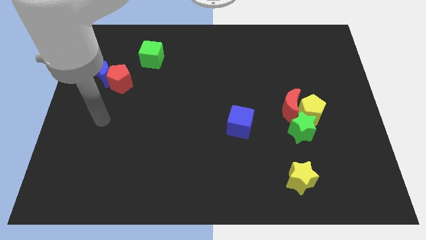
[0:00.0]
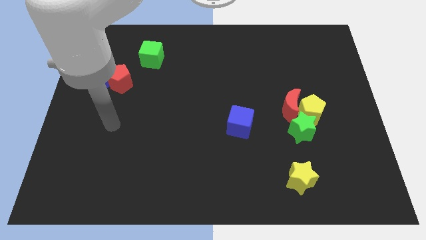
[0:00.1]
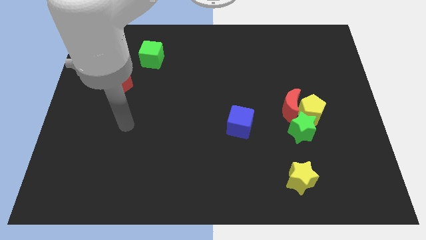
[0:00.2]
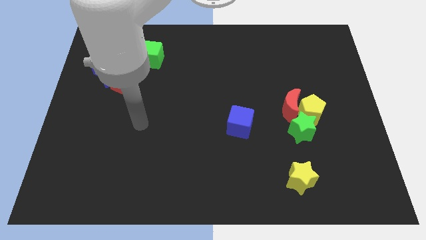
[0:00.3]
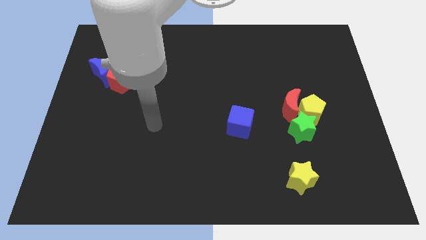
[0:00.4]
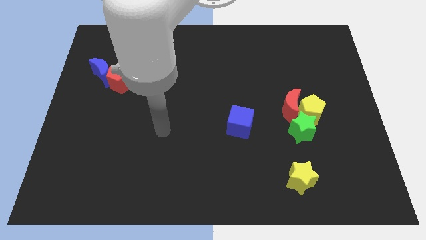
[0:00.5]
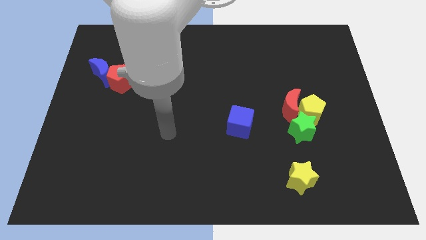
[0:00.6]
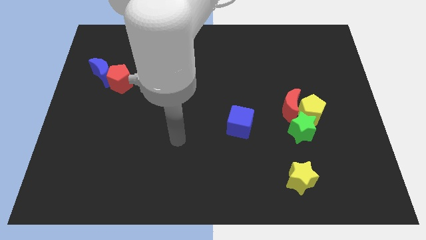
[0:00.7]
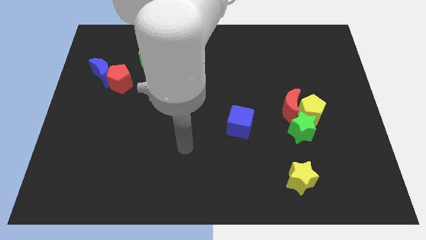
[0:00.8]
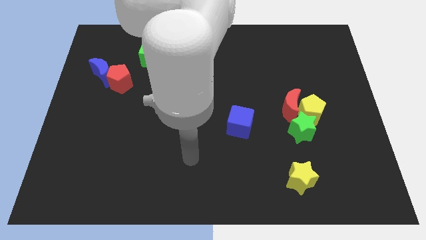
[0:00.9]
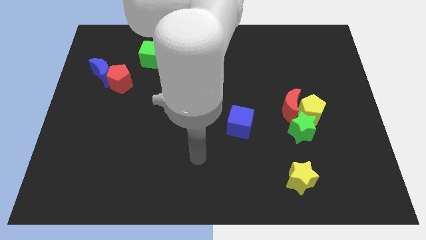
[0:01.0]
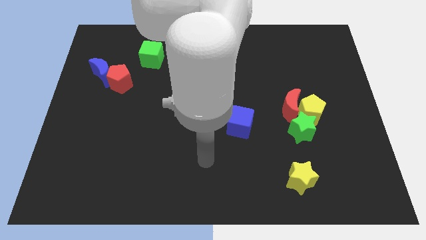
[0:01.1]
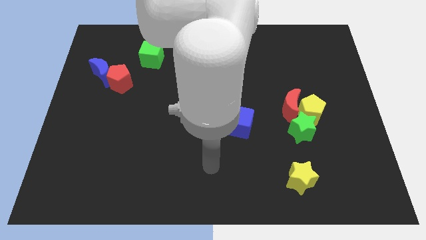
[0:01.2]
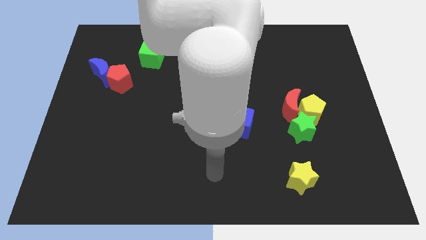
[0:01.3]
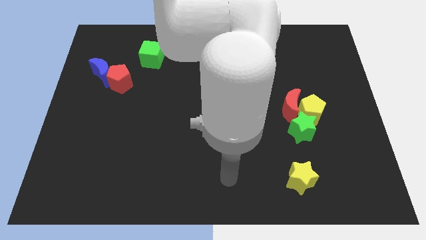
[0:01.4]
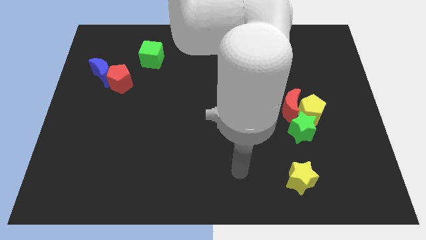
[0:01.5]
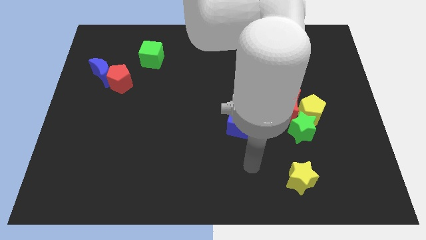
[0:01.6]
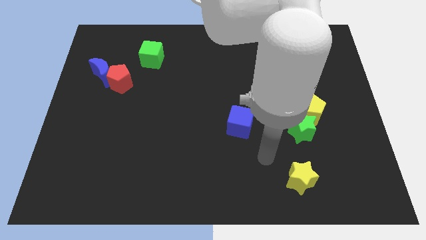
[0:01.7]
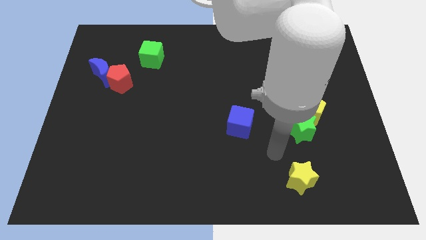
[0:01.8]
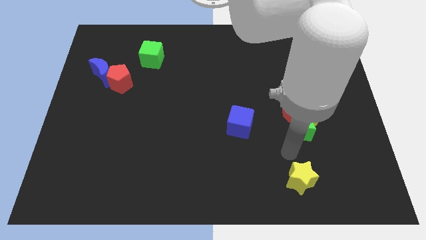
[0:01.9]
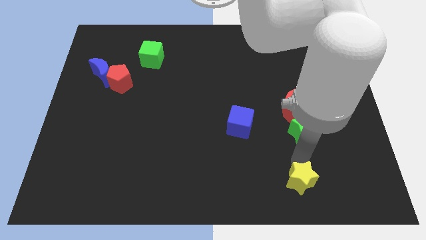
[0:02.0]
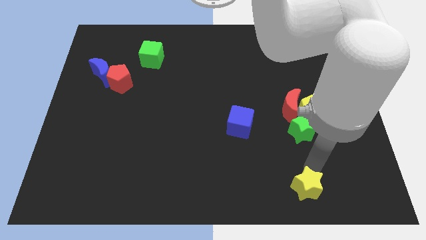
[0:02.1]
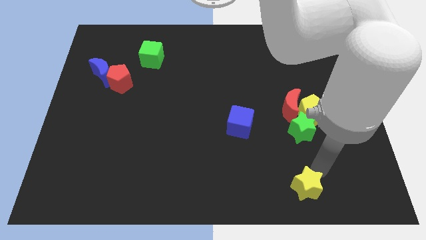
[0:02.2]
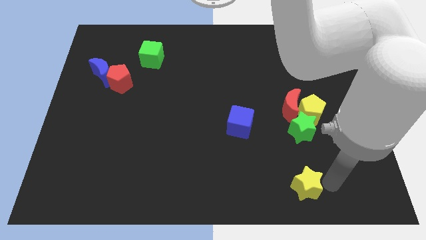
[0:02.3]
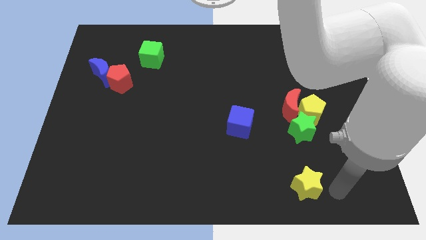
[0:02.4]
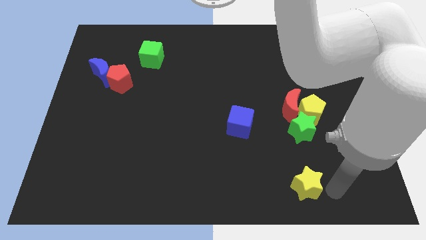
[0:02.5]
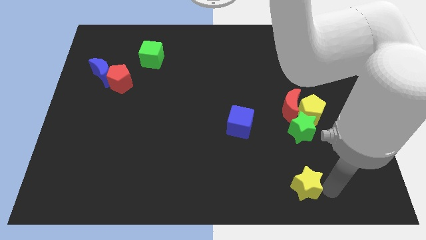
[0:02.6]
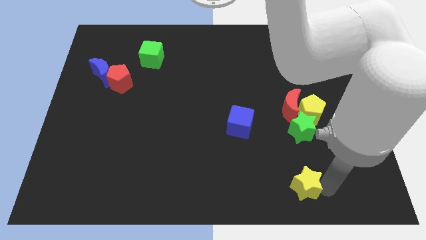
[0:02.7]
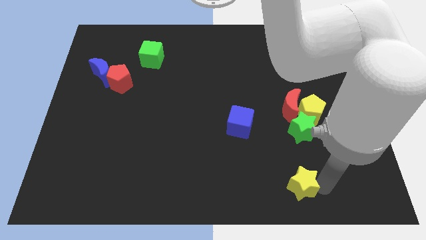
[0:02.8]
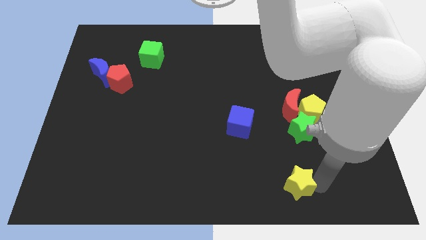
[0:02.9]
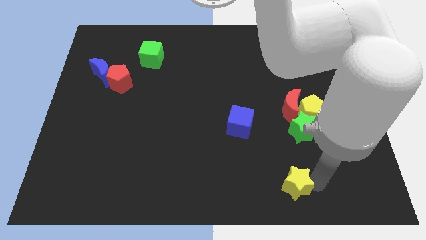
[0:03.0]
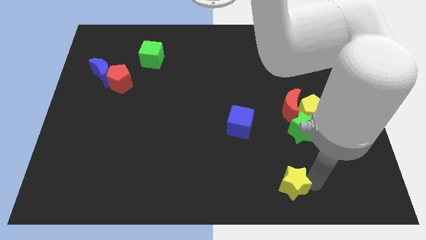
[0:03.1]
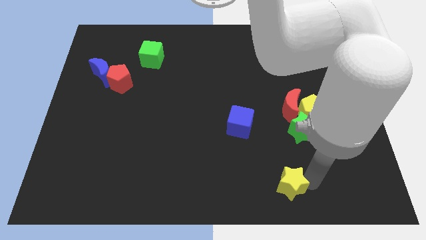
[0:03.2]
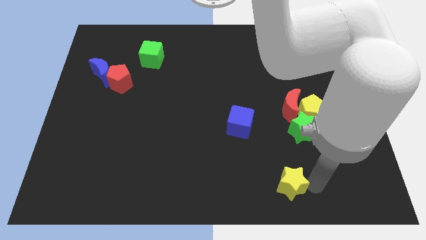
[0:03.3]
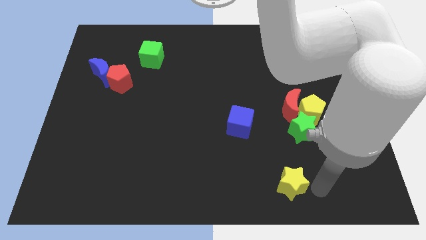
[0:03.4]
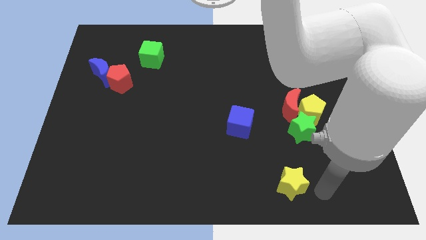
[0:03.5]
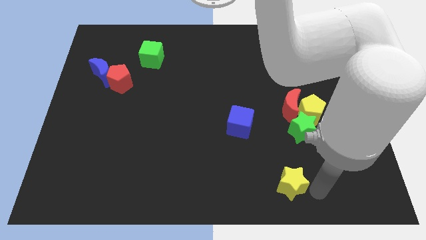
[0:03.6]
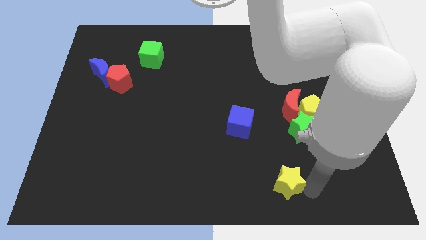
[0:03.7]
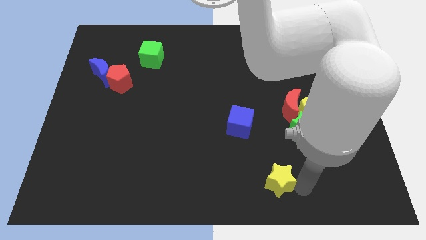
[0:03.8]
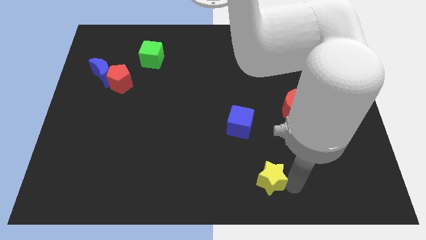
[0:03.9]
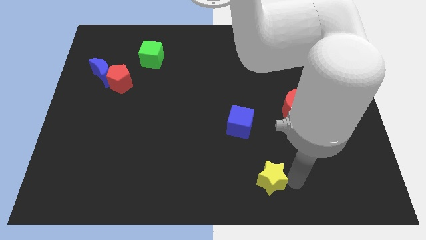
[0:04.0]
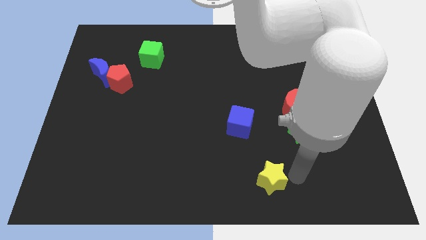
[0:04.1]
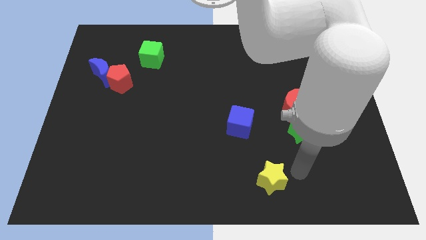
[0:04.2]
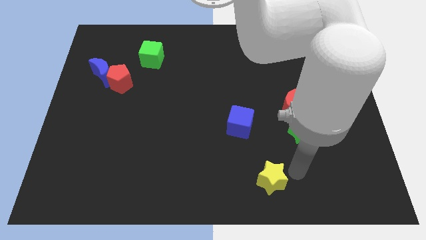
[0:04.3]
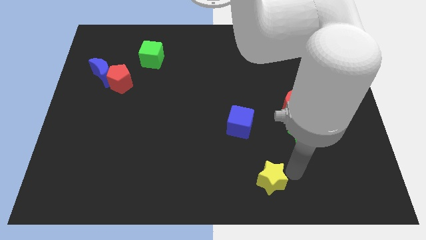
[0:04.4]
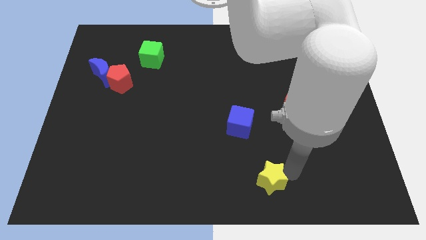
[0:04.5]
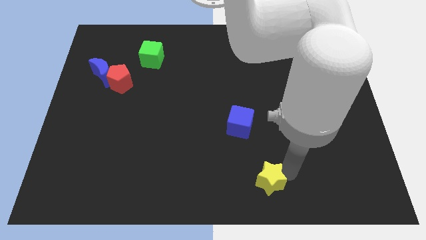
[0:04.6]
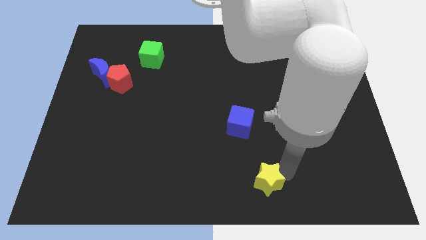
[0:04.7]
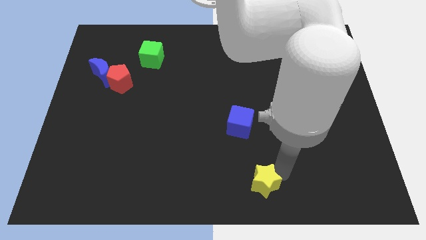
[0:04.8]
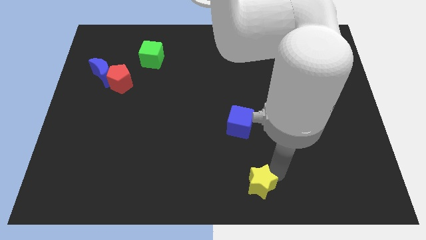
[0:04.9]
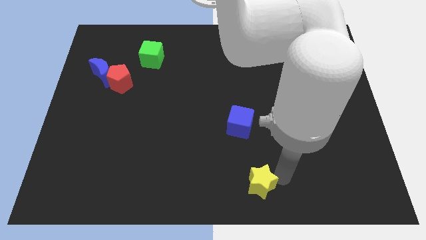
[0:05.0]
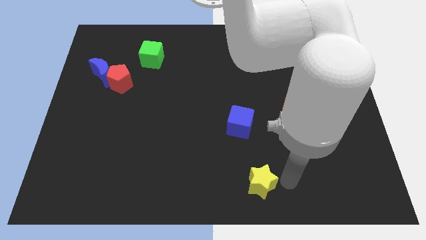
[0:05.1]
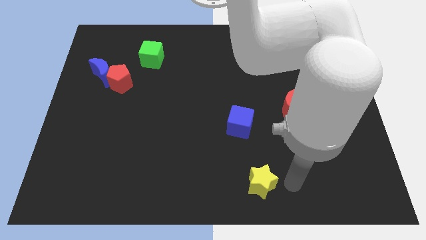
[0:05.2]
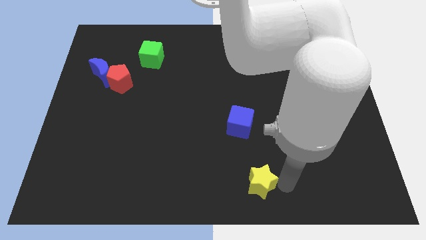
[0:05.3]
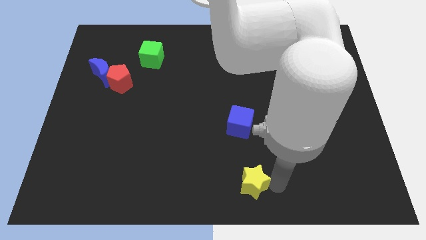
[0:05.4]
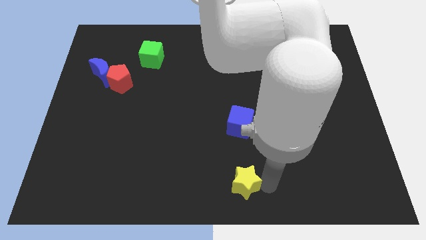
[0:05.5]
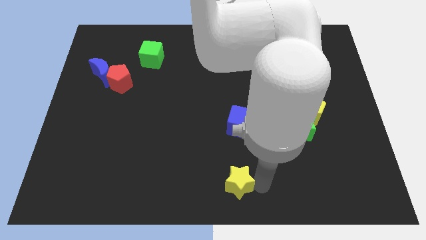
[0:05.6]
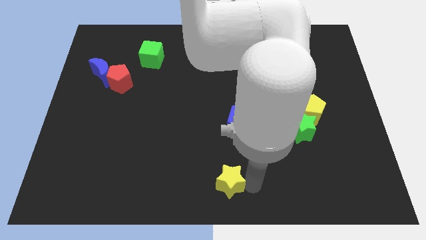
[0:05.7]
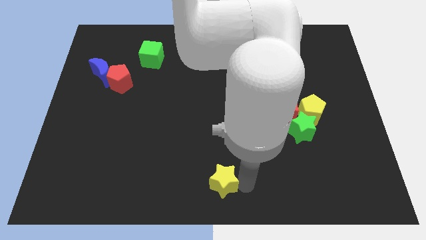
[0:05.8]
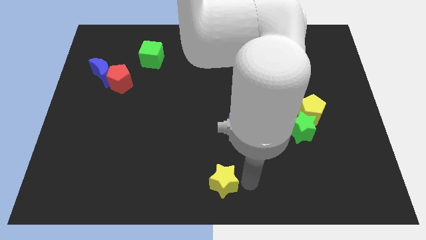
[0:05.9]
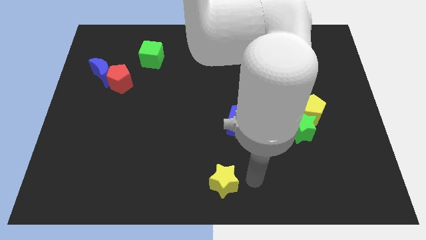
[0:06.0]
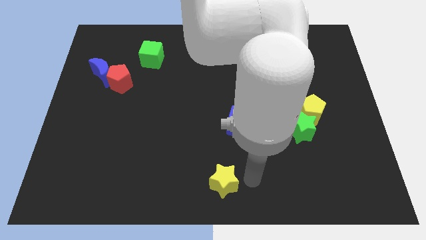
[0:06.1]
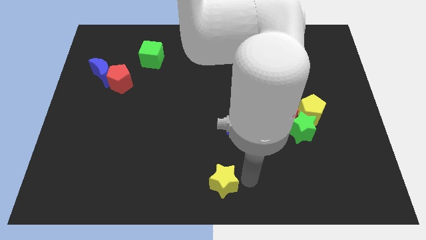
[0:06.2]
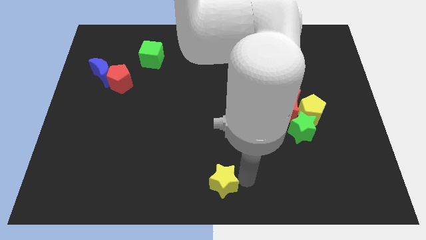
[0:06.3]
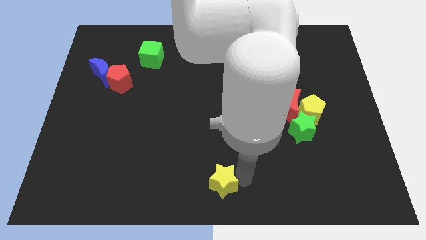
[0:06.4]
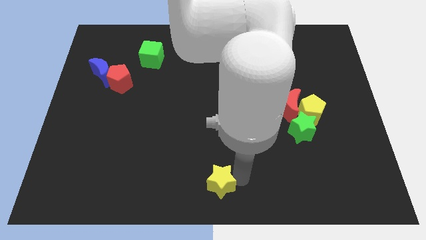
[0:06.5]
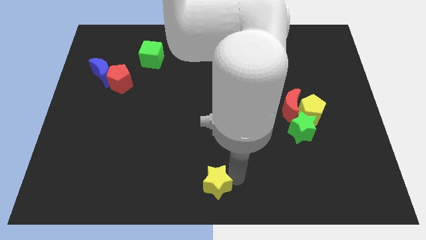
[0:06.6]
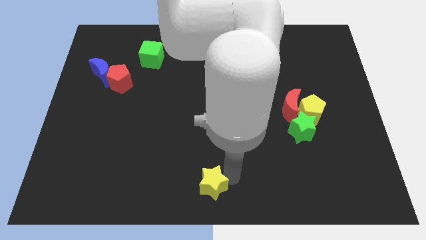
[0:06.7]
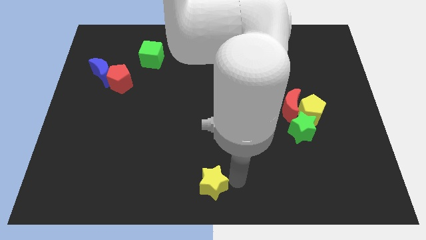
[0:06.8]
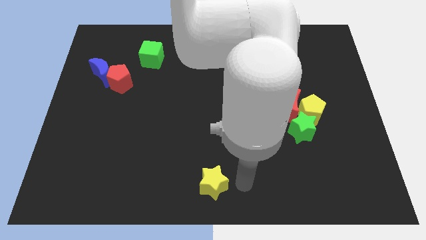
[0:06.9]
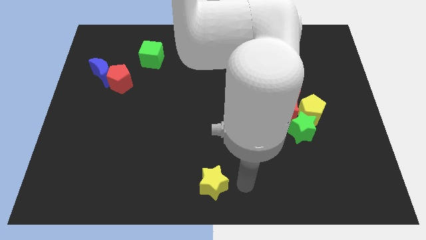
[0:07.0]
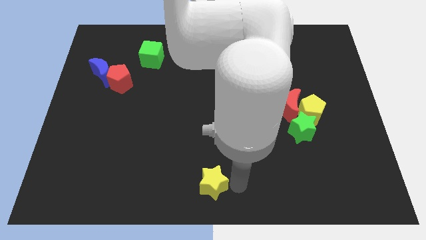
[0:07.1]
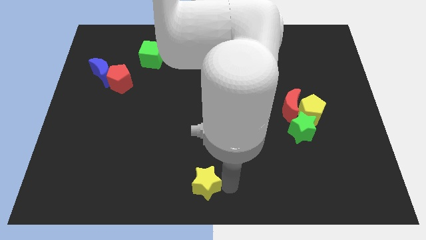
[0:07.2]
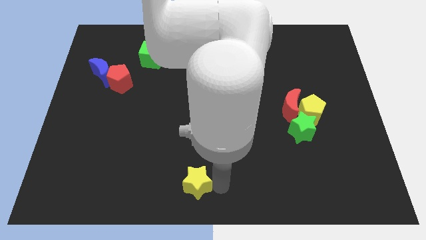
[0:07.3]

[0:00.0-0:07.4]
push the yellow star left

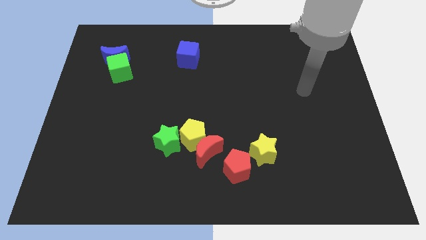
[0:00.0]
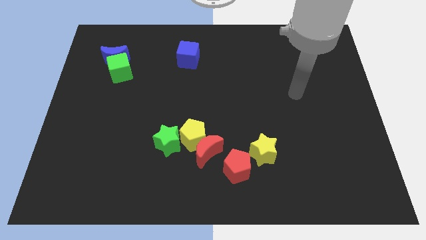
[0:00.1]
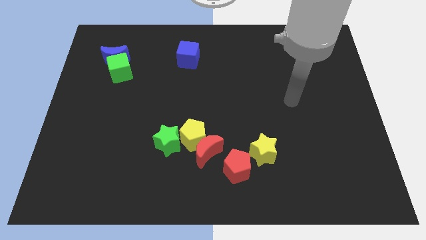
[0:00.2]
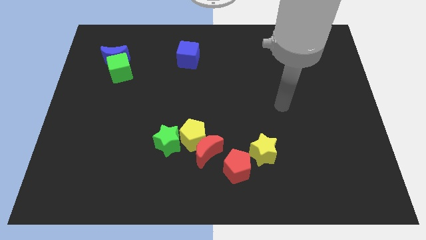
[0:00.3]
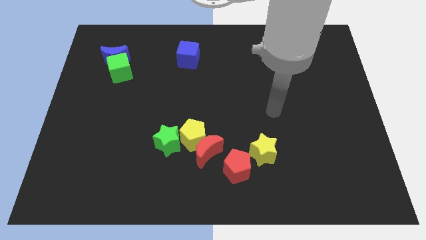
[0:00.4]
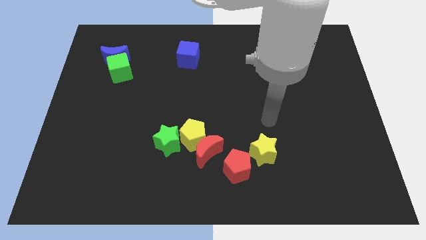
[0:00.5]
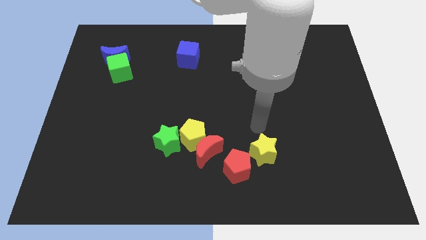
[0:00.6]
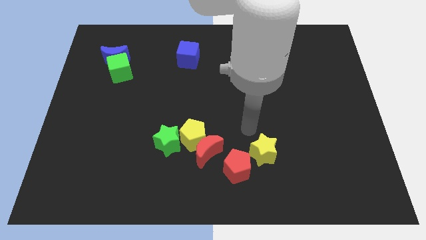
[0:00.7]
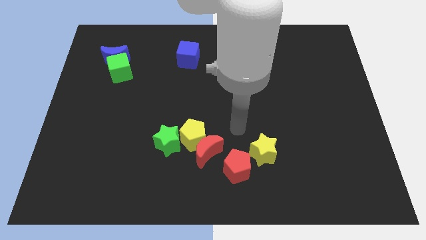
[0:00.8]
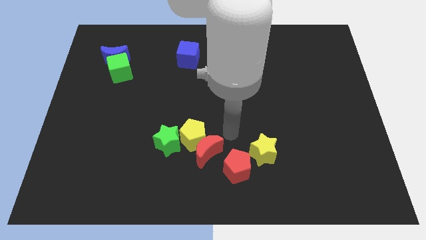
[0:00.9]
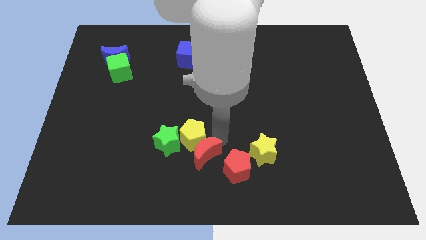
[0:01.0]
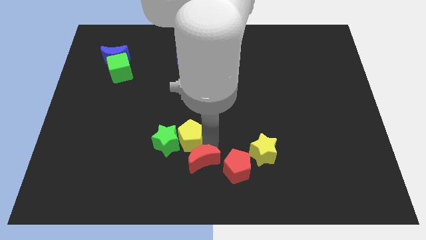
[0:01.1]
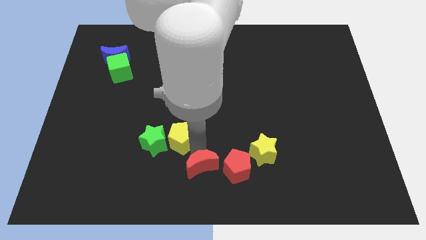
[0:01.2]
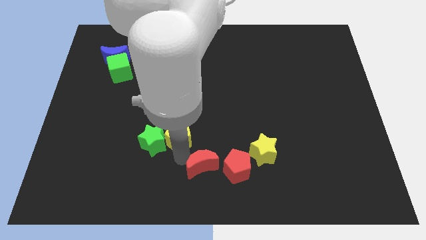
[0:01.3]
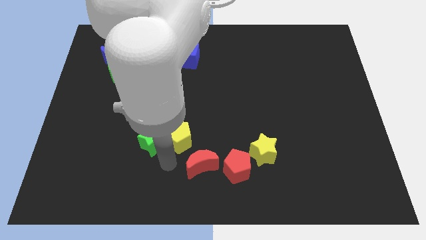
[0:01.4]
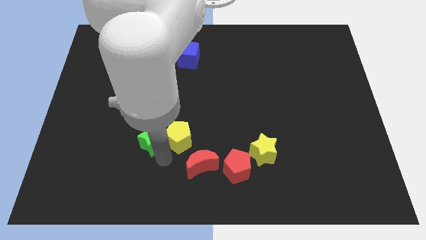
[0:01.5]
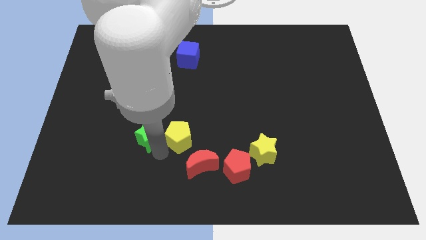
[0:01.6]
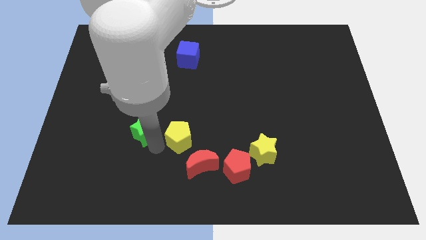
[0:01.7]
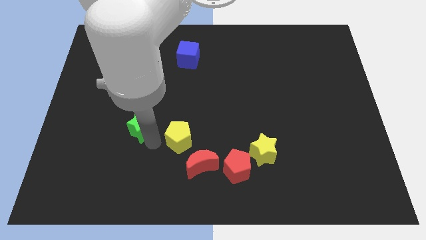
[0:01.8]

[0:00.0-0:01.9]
move the green star somewhat upwards and then to the left
